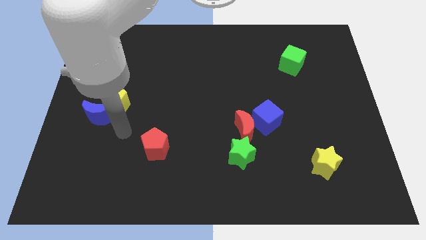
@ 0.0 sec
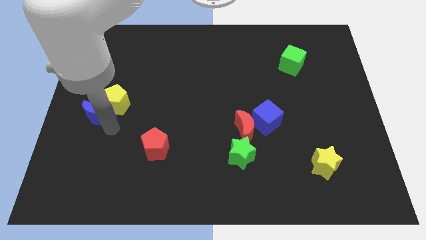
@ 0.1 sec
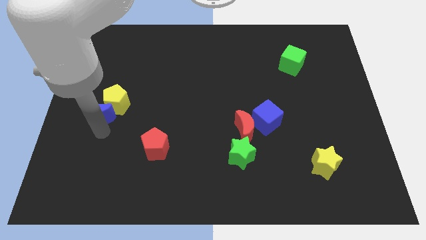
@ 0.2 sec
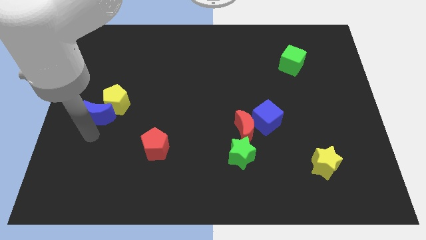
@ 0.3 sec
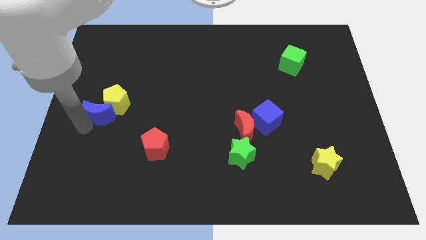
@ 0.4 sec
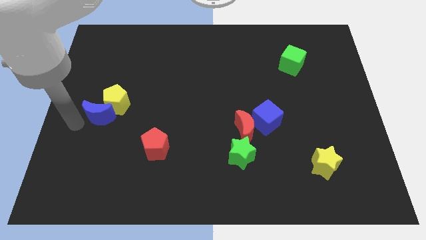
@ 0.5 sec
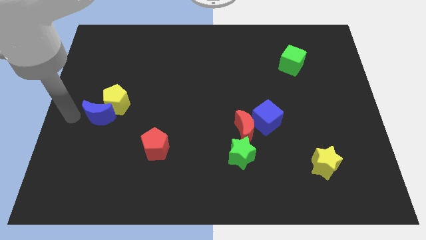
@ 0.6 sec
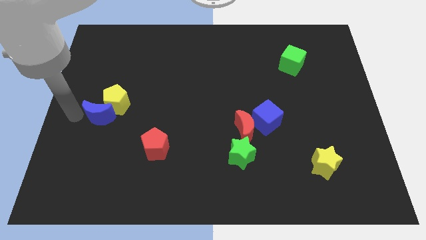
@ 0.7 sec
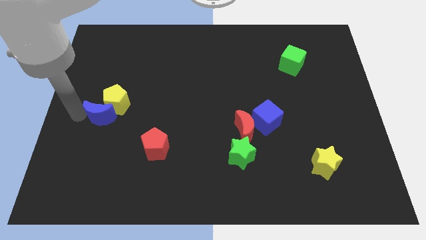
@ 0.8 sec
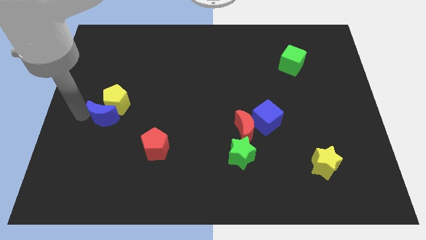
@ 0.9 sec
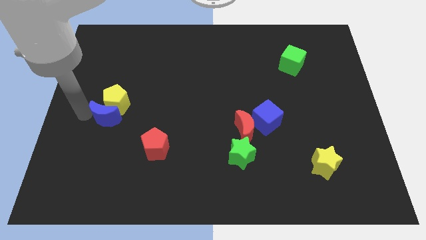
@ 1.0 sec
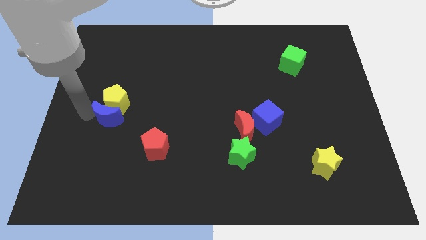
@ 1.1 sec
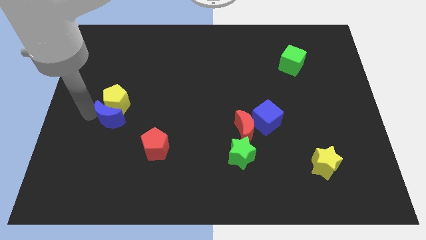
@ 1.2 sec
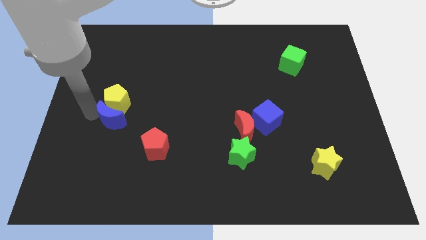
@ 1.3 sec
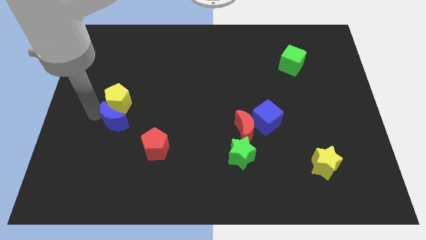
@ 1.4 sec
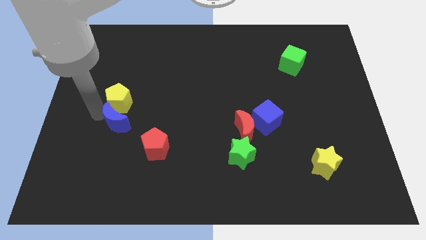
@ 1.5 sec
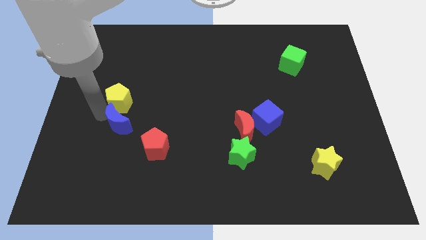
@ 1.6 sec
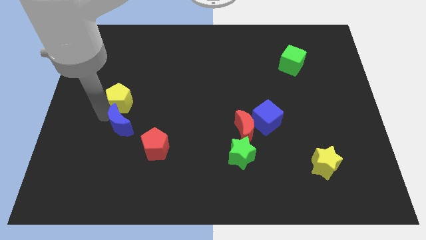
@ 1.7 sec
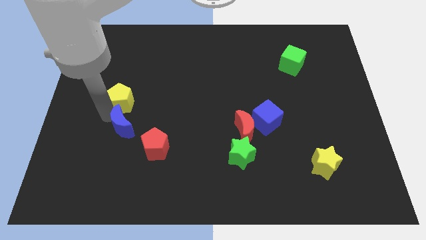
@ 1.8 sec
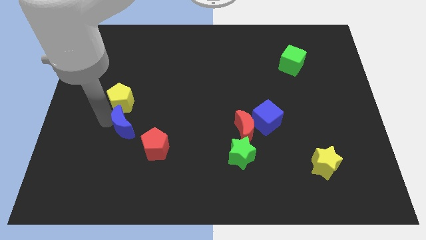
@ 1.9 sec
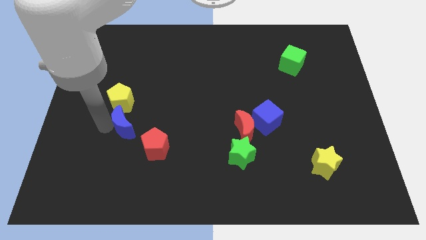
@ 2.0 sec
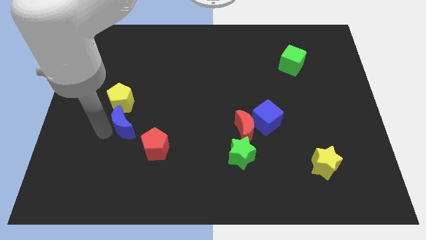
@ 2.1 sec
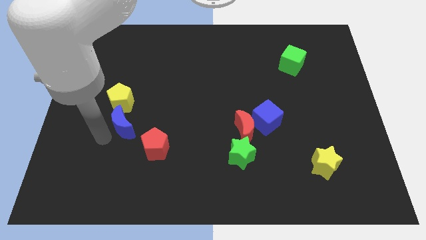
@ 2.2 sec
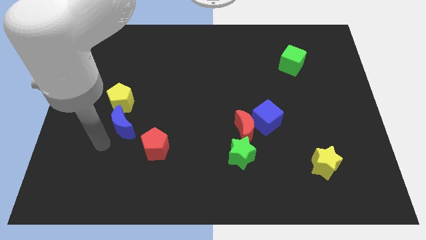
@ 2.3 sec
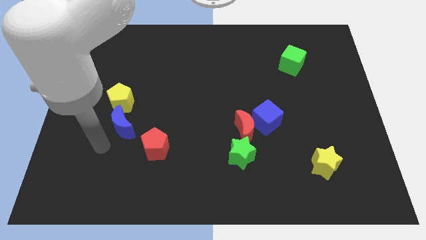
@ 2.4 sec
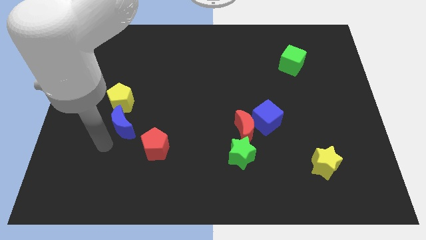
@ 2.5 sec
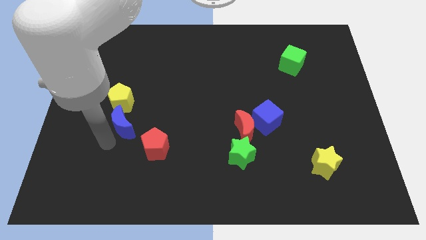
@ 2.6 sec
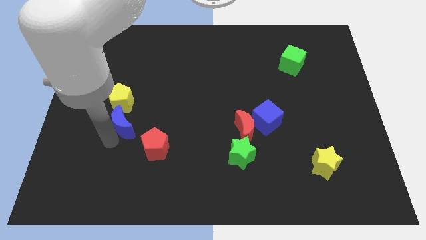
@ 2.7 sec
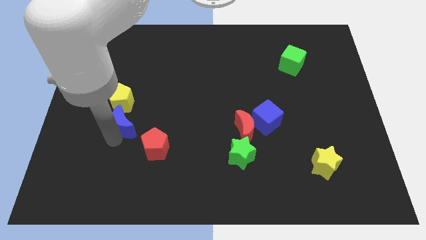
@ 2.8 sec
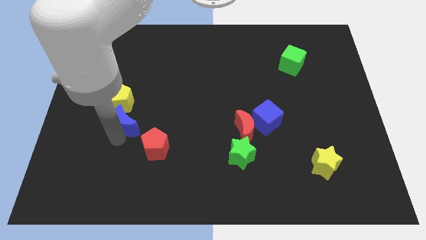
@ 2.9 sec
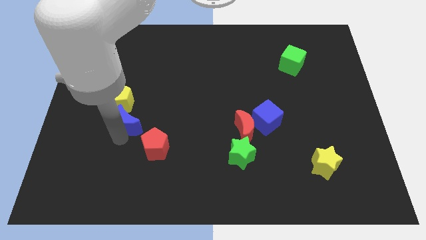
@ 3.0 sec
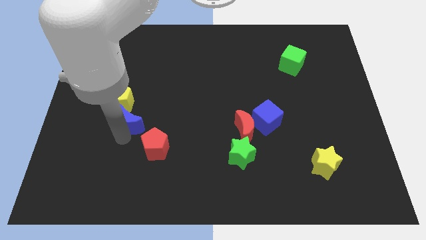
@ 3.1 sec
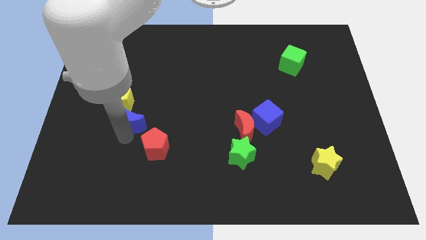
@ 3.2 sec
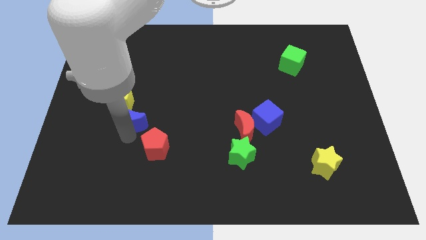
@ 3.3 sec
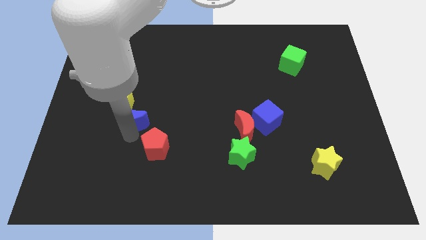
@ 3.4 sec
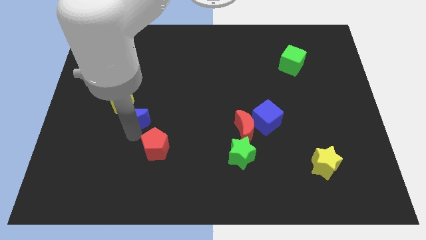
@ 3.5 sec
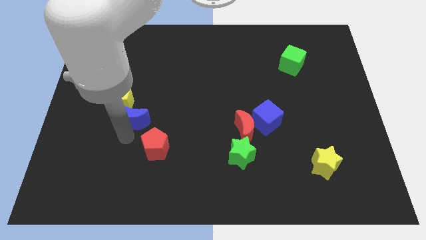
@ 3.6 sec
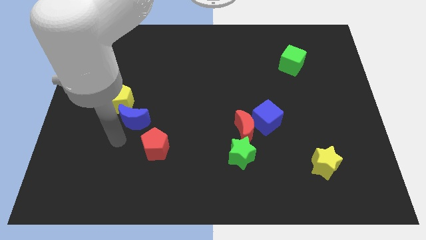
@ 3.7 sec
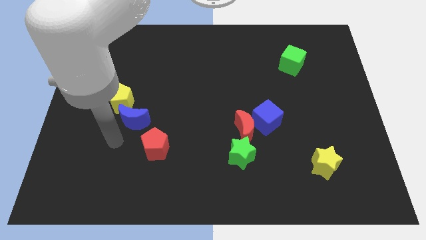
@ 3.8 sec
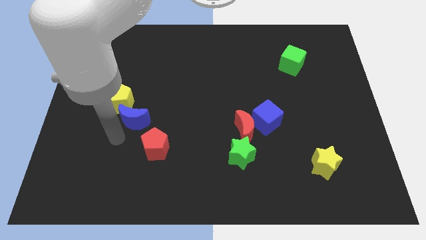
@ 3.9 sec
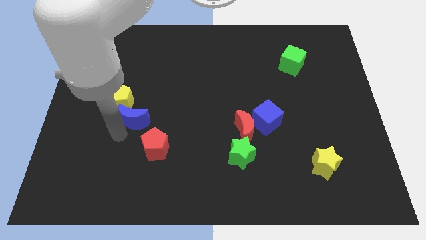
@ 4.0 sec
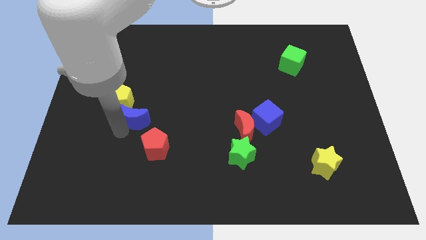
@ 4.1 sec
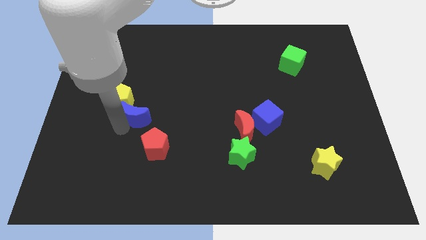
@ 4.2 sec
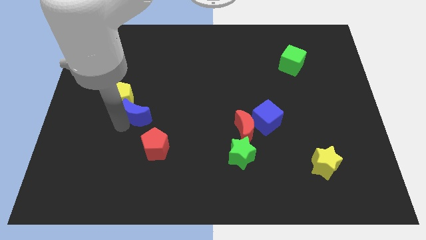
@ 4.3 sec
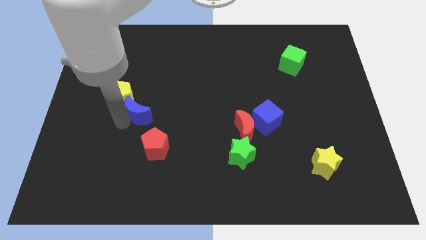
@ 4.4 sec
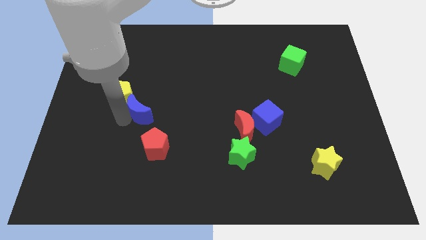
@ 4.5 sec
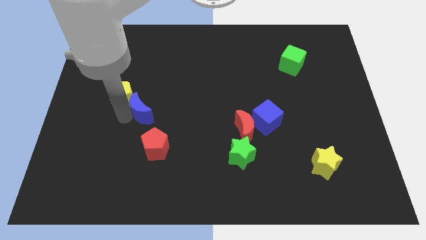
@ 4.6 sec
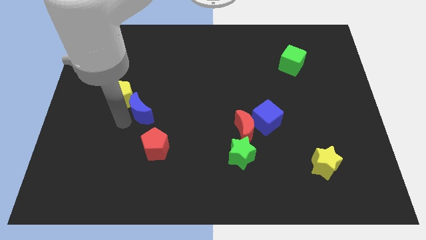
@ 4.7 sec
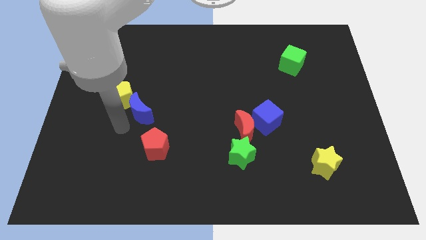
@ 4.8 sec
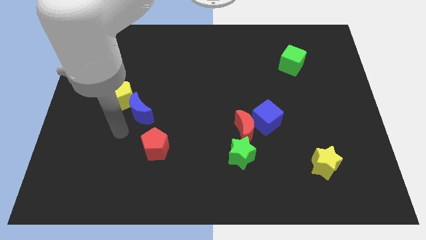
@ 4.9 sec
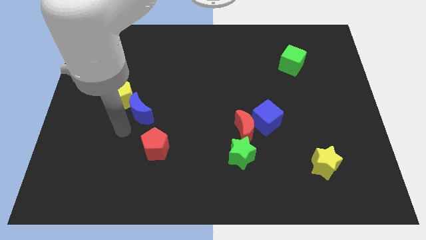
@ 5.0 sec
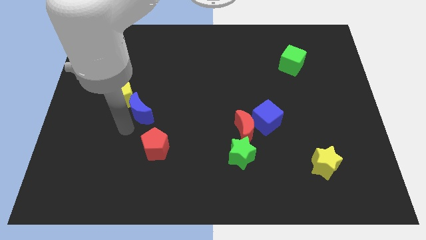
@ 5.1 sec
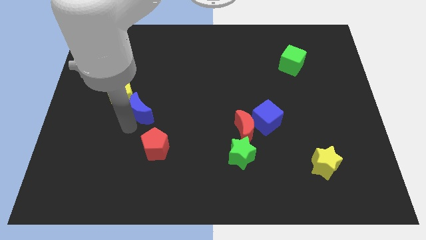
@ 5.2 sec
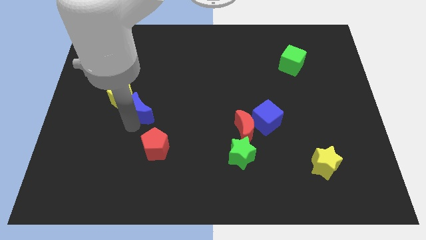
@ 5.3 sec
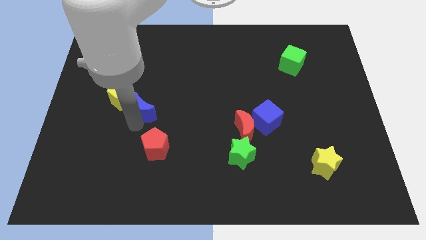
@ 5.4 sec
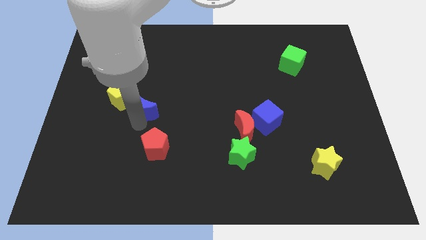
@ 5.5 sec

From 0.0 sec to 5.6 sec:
slightly slide the blue moon up and to the right diagonally

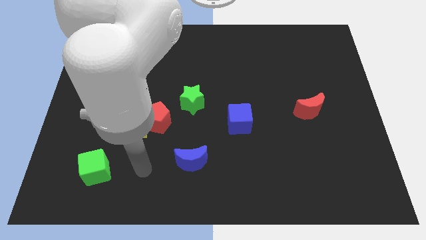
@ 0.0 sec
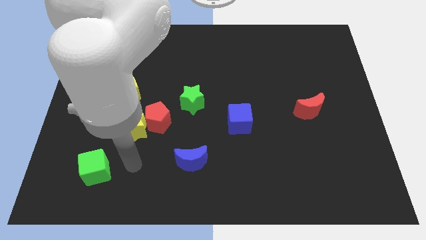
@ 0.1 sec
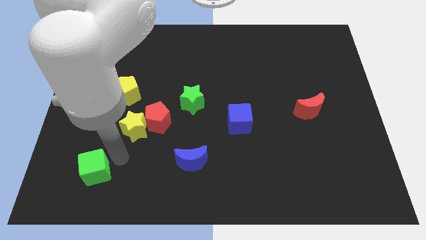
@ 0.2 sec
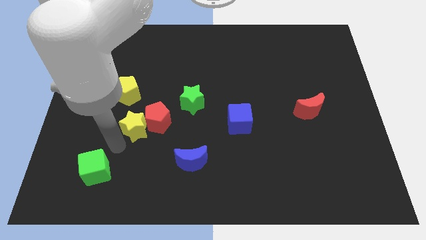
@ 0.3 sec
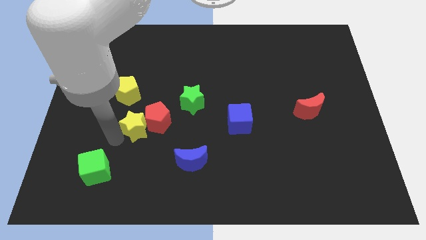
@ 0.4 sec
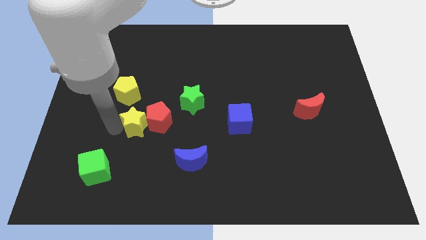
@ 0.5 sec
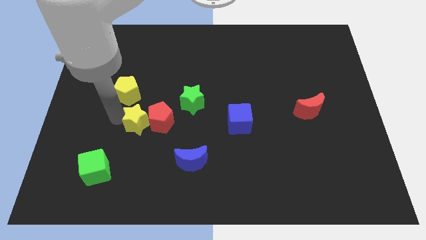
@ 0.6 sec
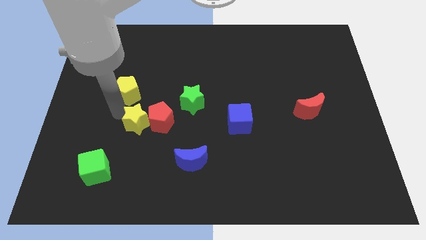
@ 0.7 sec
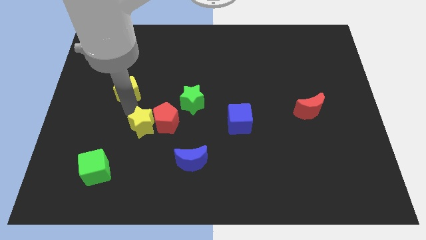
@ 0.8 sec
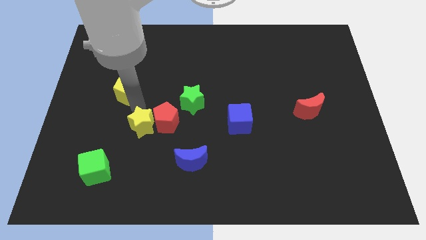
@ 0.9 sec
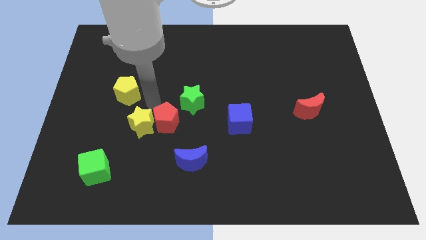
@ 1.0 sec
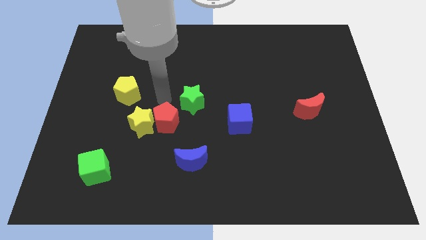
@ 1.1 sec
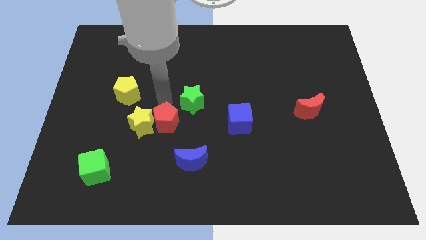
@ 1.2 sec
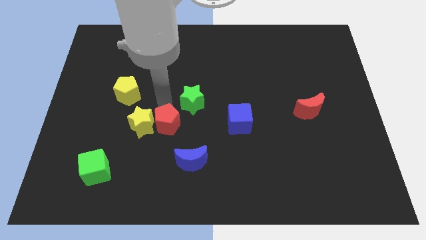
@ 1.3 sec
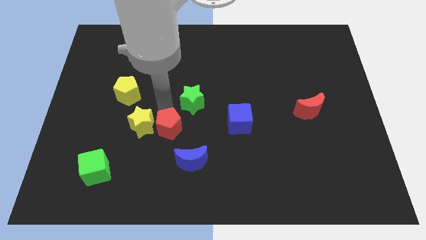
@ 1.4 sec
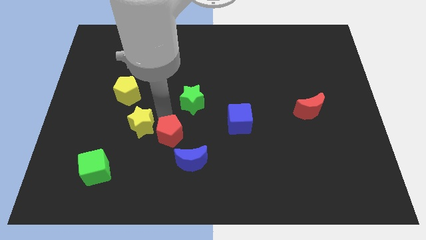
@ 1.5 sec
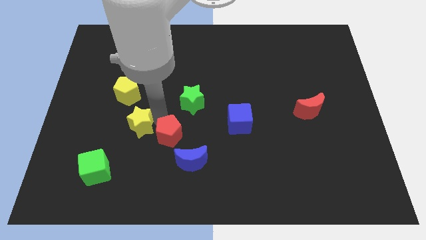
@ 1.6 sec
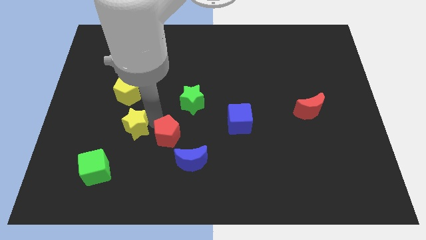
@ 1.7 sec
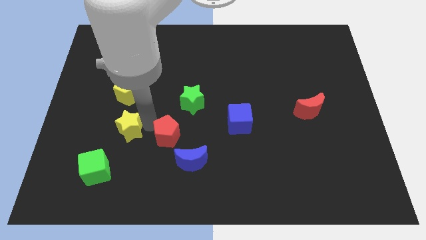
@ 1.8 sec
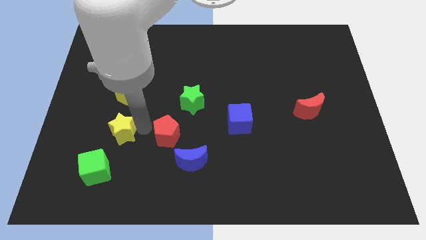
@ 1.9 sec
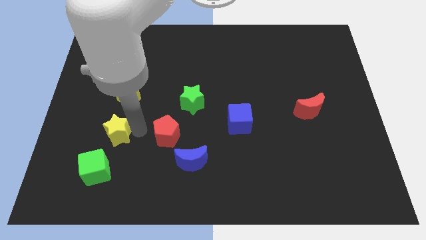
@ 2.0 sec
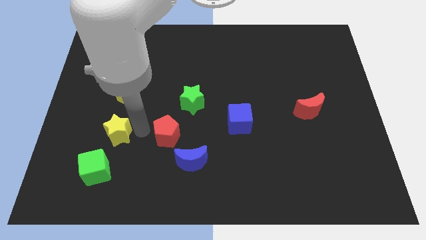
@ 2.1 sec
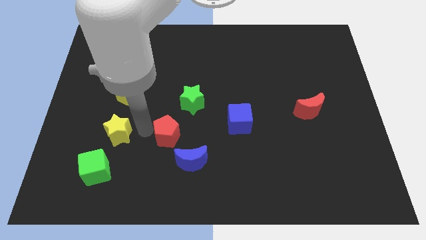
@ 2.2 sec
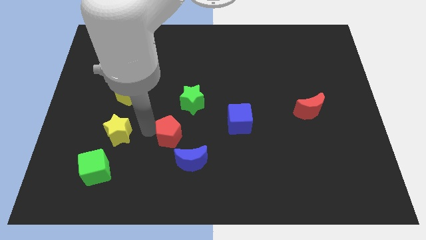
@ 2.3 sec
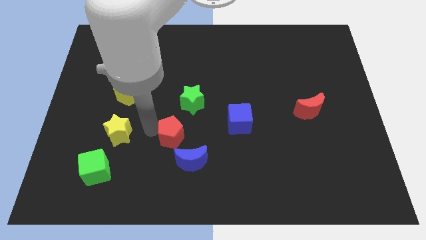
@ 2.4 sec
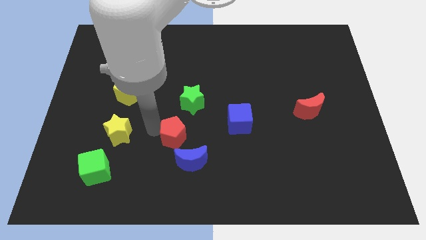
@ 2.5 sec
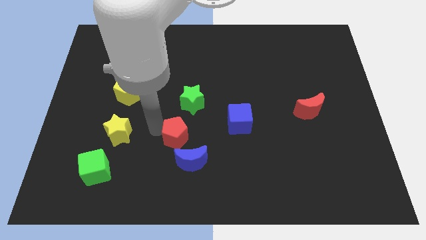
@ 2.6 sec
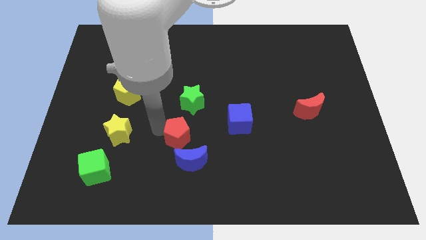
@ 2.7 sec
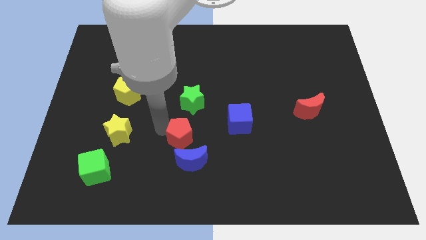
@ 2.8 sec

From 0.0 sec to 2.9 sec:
slightly push the red pentagon downwards and to the right
